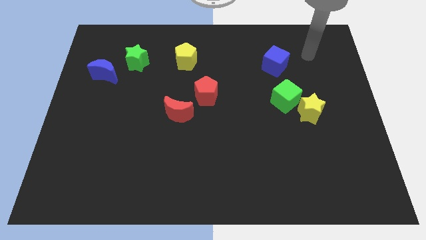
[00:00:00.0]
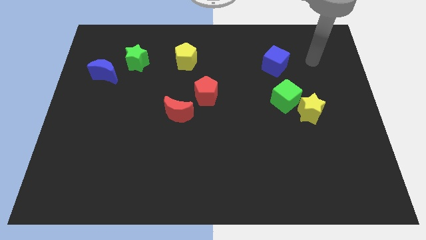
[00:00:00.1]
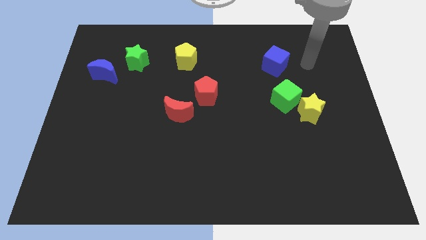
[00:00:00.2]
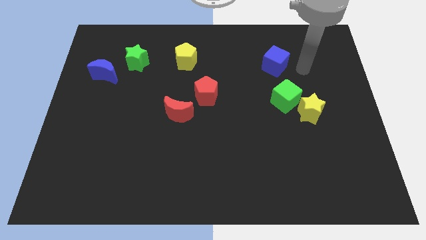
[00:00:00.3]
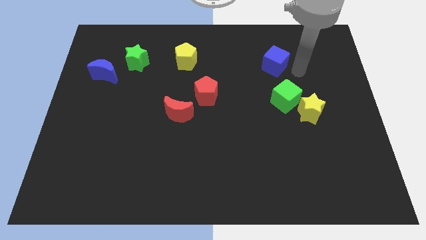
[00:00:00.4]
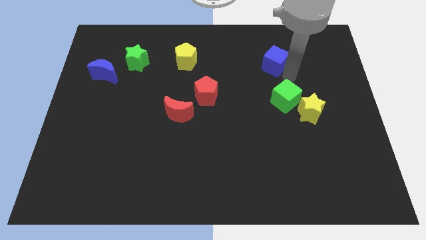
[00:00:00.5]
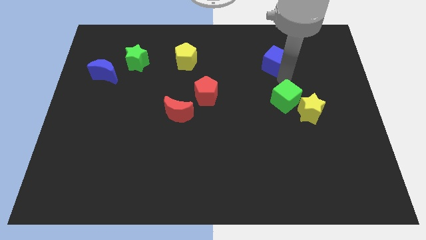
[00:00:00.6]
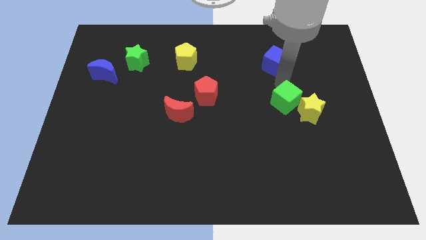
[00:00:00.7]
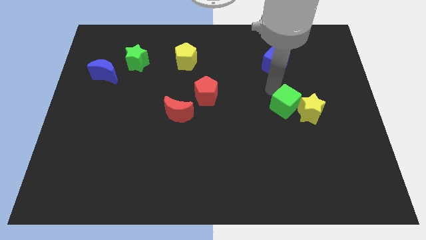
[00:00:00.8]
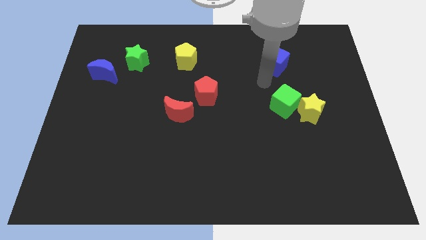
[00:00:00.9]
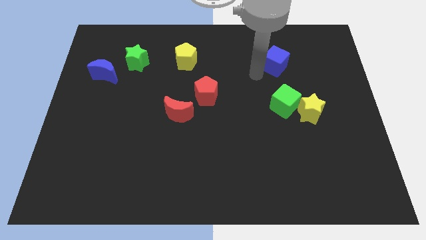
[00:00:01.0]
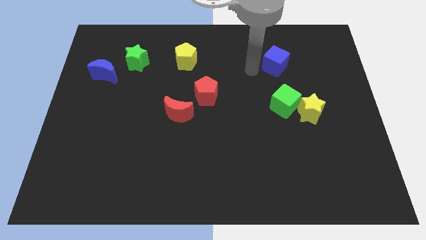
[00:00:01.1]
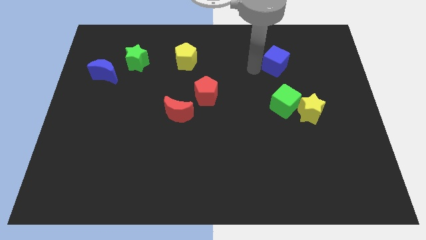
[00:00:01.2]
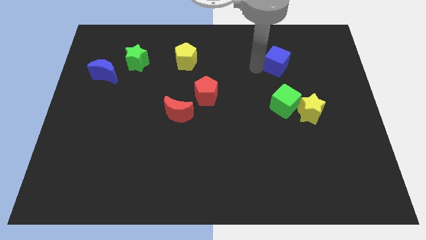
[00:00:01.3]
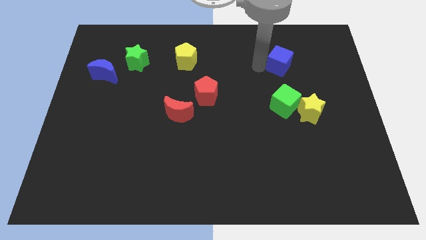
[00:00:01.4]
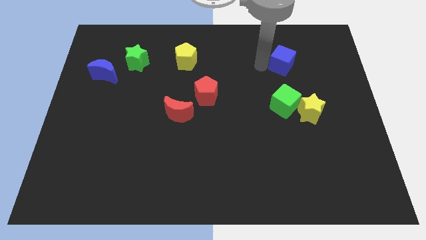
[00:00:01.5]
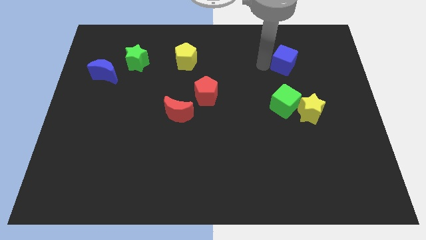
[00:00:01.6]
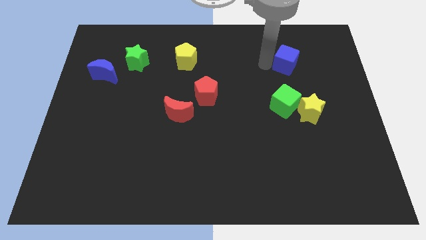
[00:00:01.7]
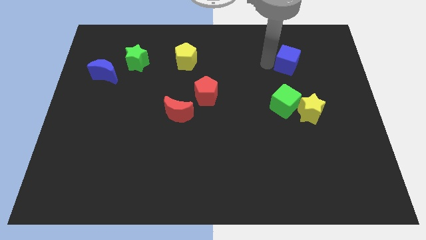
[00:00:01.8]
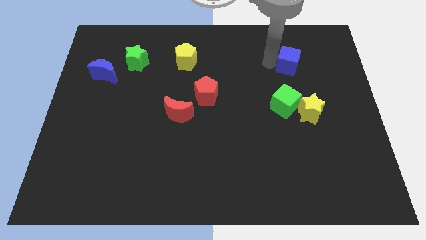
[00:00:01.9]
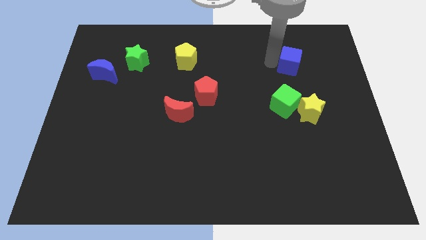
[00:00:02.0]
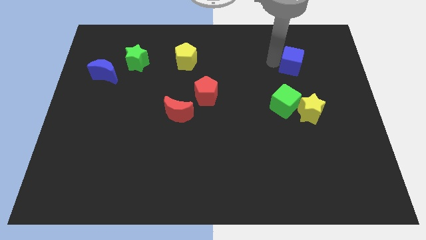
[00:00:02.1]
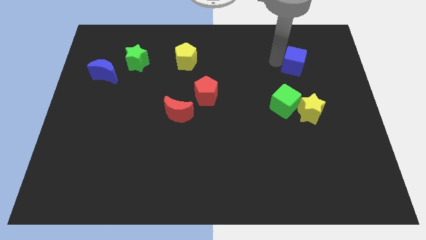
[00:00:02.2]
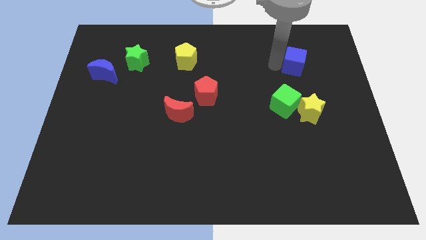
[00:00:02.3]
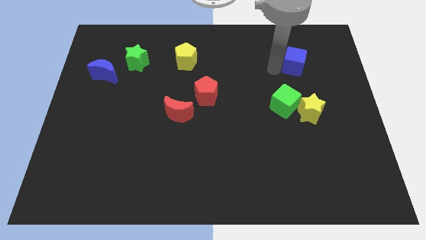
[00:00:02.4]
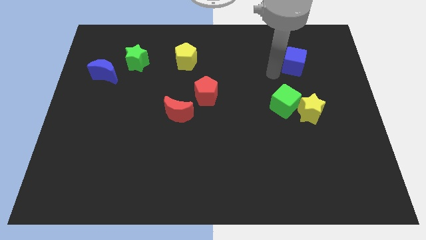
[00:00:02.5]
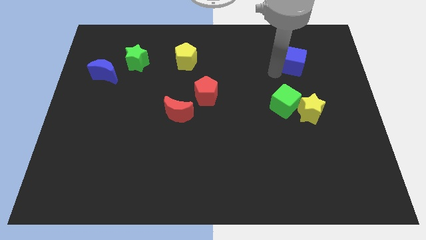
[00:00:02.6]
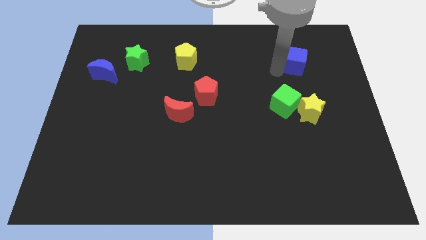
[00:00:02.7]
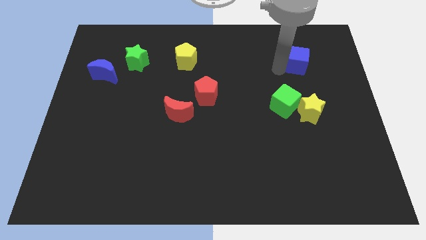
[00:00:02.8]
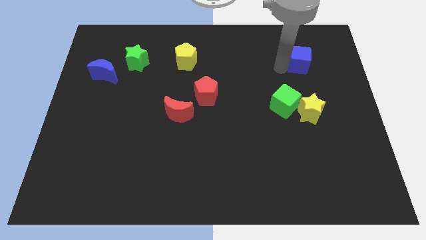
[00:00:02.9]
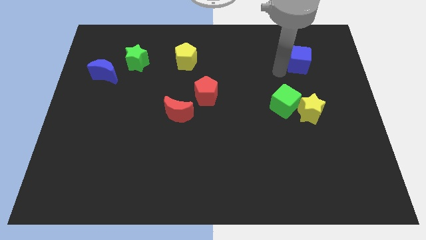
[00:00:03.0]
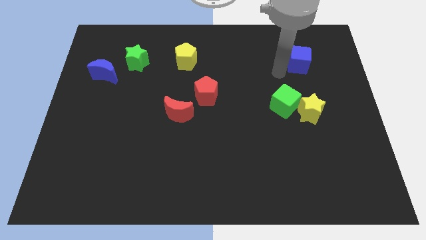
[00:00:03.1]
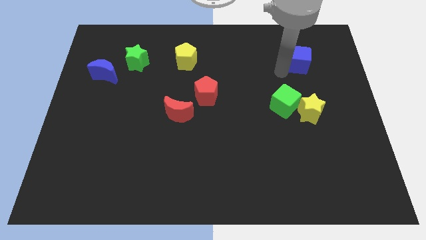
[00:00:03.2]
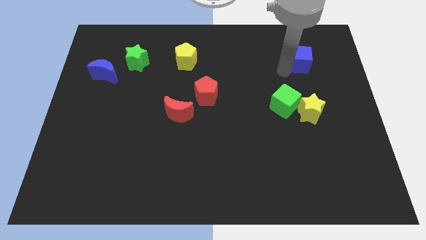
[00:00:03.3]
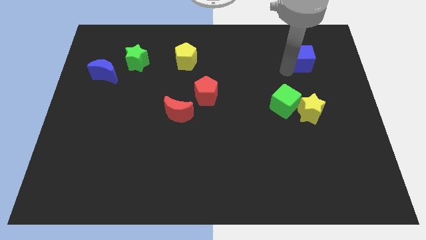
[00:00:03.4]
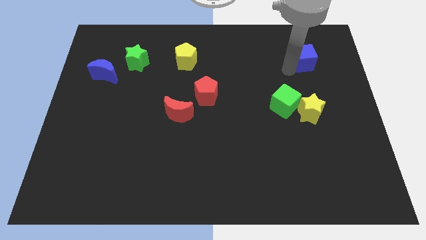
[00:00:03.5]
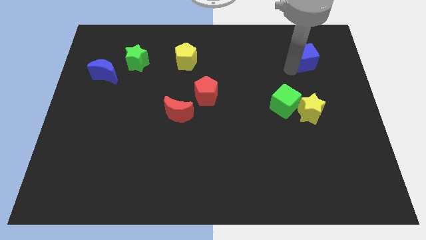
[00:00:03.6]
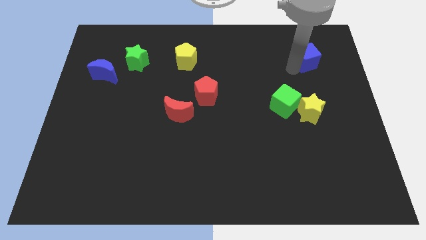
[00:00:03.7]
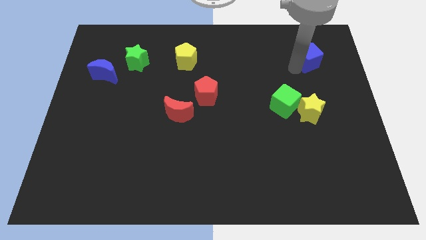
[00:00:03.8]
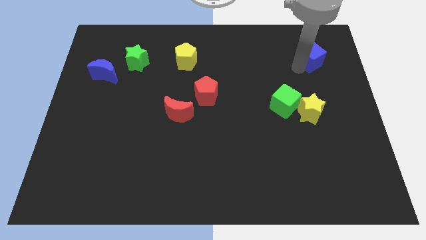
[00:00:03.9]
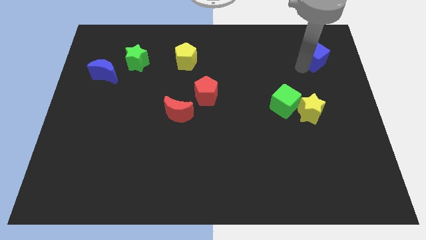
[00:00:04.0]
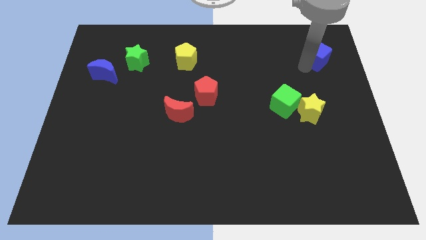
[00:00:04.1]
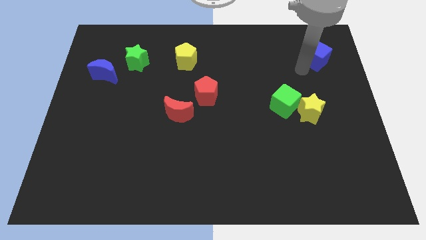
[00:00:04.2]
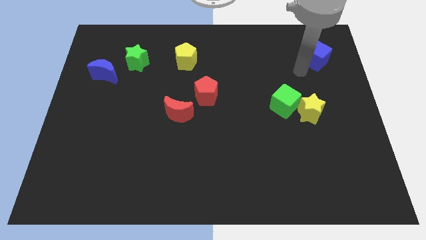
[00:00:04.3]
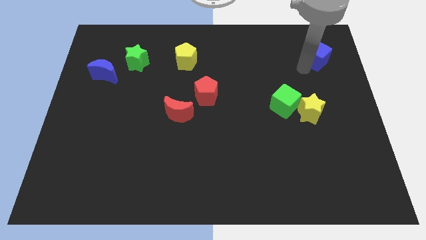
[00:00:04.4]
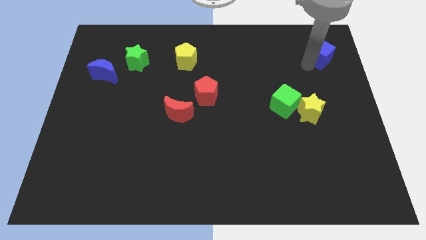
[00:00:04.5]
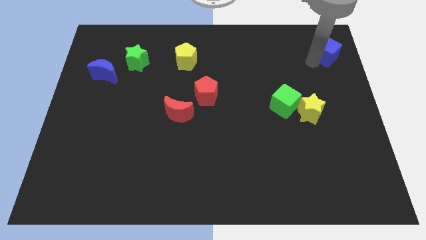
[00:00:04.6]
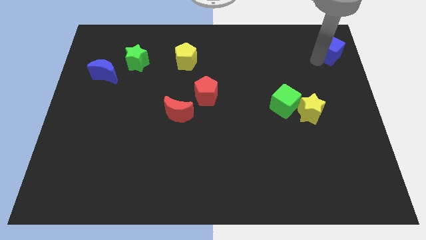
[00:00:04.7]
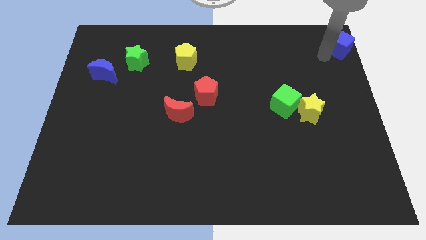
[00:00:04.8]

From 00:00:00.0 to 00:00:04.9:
move the blue cube to the top right

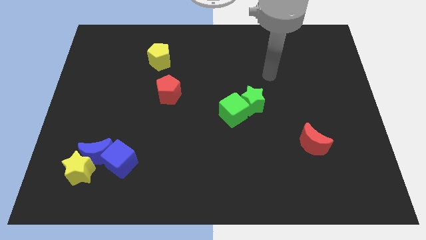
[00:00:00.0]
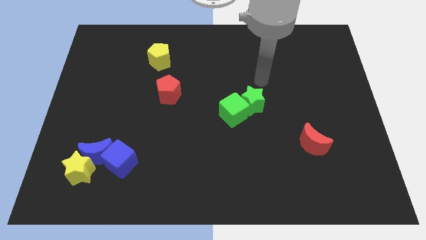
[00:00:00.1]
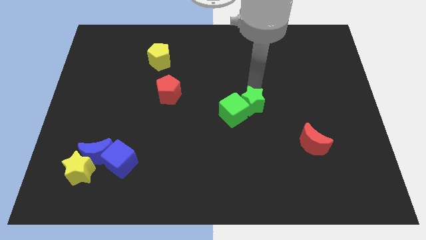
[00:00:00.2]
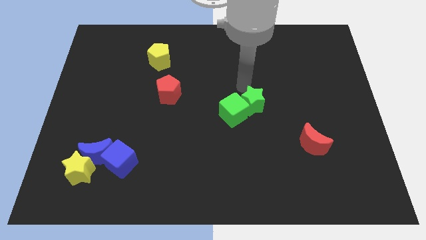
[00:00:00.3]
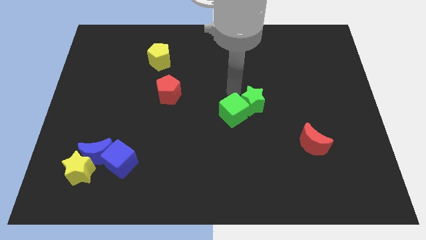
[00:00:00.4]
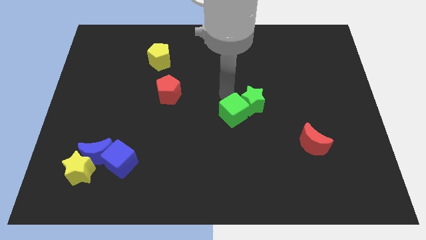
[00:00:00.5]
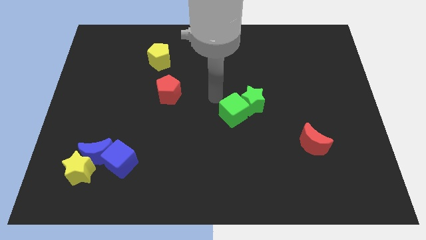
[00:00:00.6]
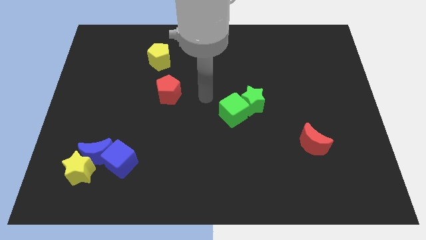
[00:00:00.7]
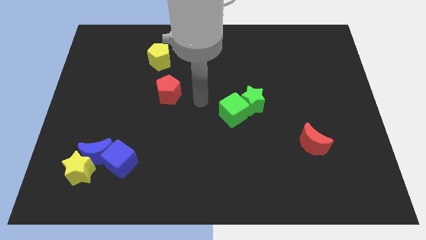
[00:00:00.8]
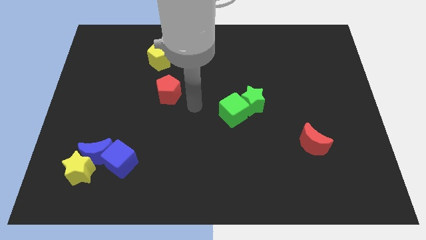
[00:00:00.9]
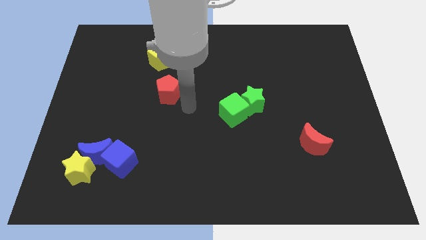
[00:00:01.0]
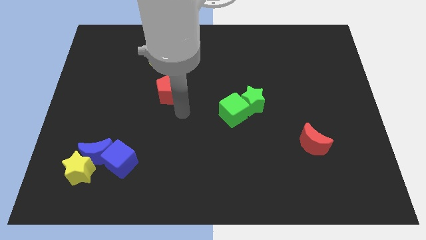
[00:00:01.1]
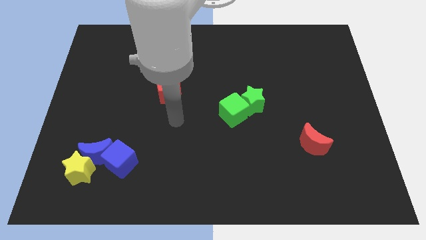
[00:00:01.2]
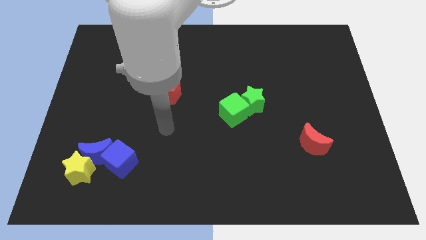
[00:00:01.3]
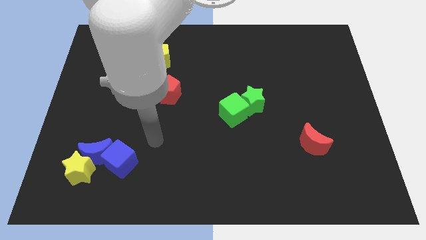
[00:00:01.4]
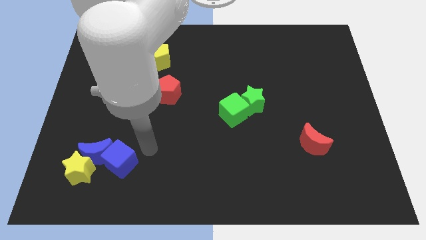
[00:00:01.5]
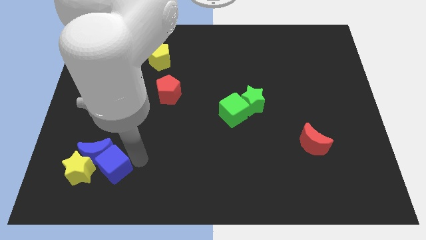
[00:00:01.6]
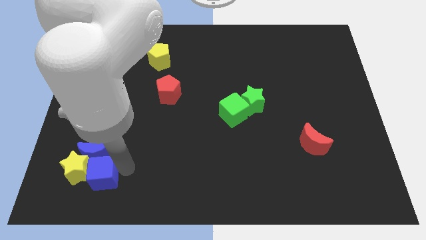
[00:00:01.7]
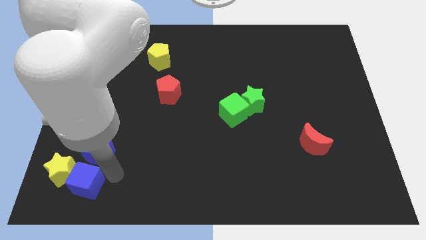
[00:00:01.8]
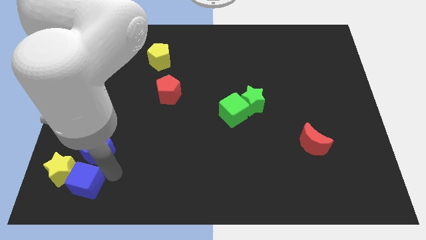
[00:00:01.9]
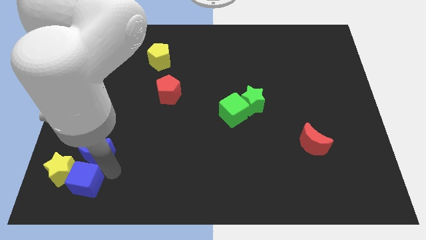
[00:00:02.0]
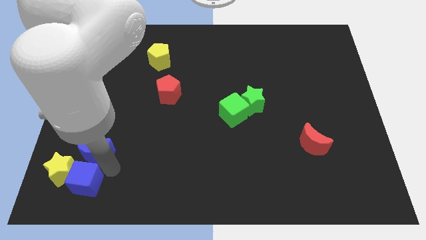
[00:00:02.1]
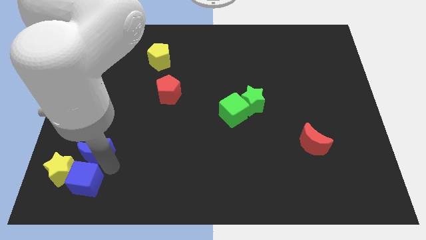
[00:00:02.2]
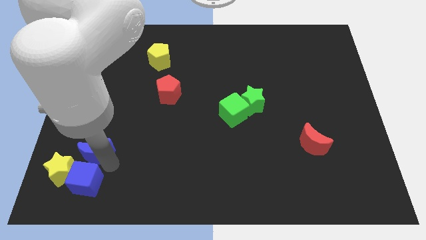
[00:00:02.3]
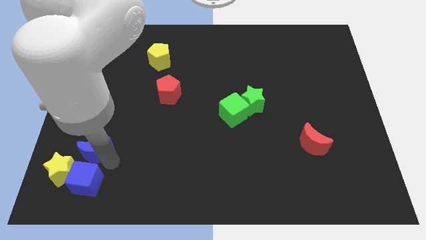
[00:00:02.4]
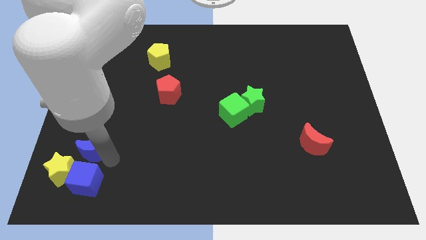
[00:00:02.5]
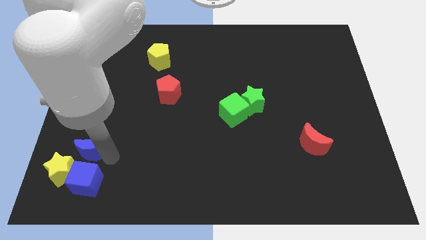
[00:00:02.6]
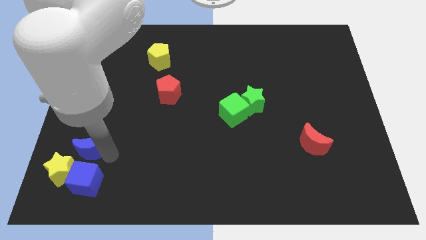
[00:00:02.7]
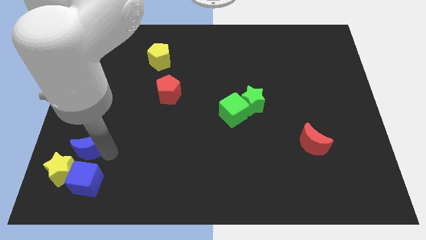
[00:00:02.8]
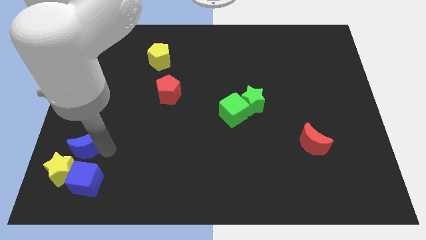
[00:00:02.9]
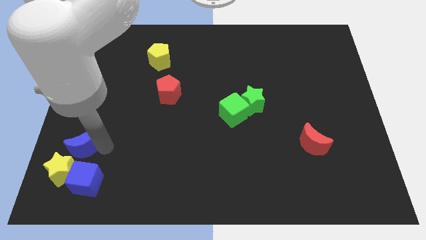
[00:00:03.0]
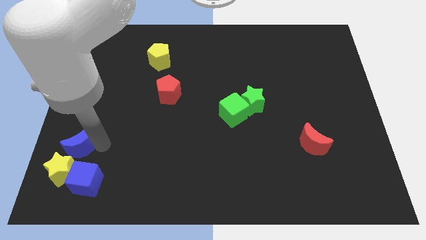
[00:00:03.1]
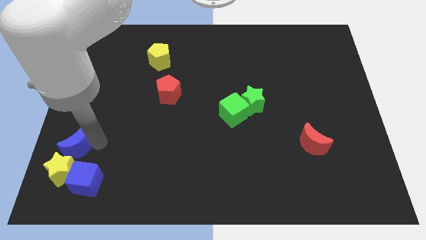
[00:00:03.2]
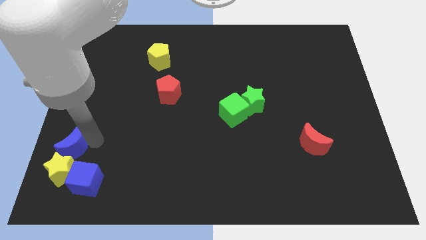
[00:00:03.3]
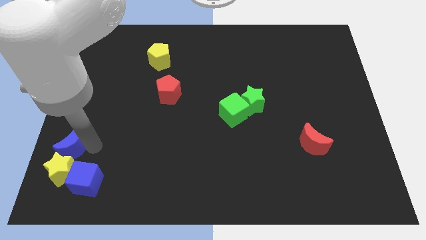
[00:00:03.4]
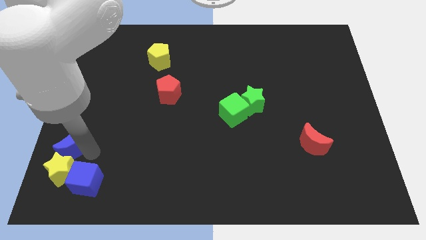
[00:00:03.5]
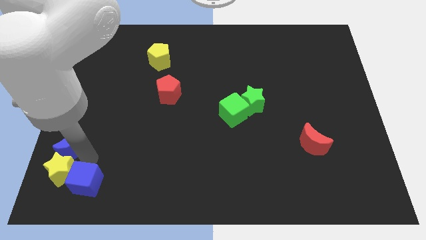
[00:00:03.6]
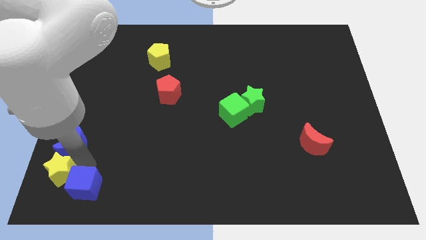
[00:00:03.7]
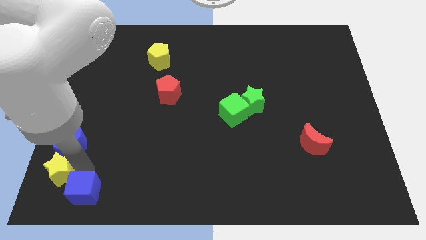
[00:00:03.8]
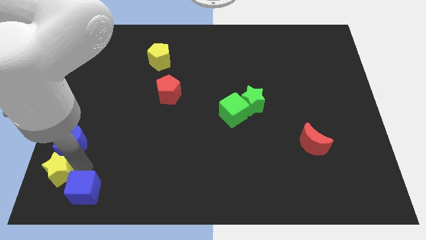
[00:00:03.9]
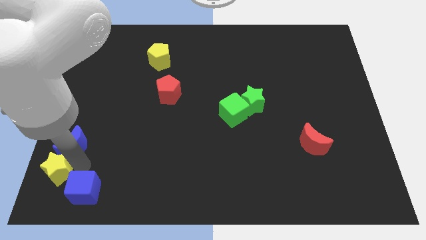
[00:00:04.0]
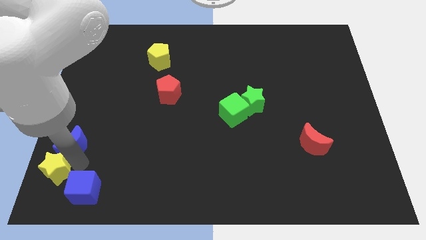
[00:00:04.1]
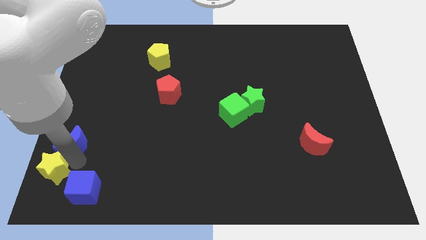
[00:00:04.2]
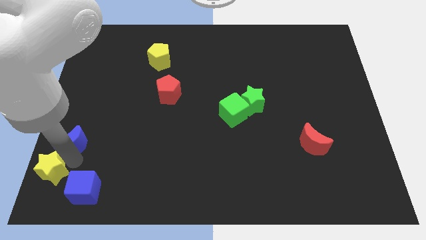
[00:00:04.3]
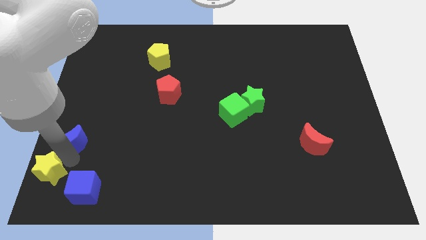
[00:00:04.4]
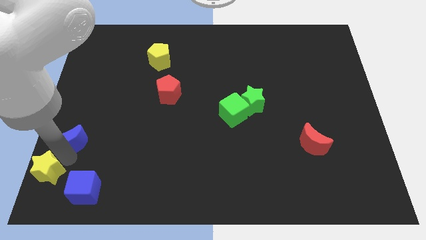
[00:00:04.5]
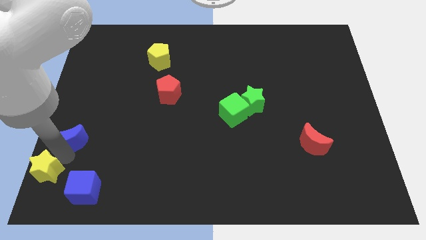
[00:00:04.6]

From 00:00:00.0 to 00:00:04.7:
put the blue moon to the left side
